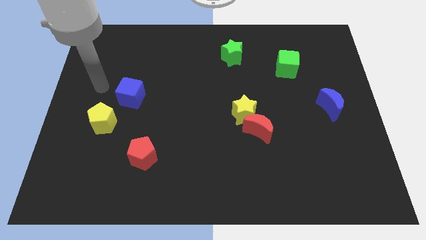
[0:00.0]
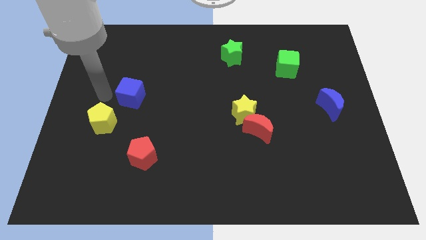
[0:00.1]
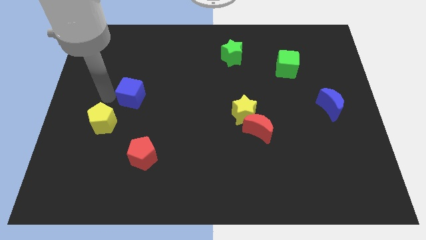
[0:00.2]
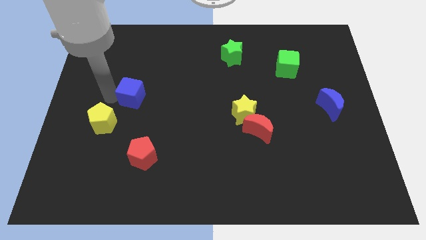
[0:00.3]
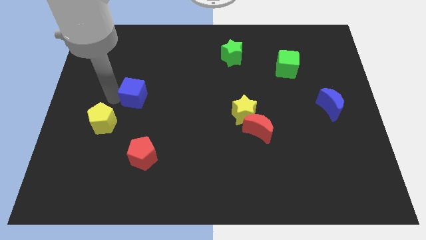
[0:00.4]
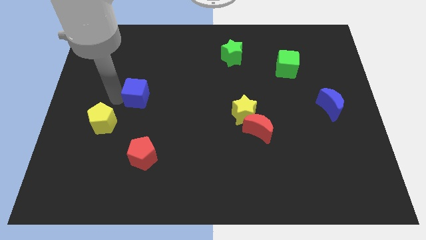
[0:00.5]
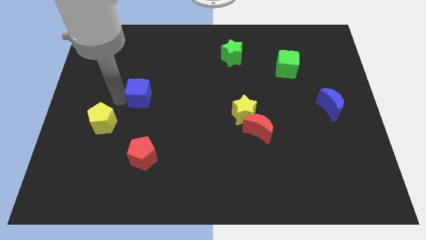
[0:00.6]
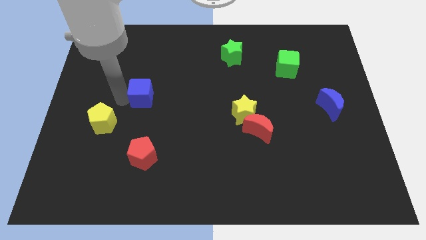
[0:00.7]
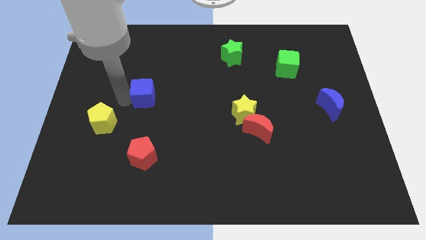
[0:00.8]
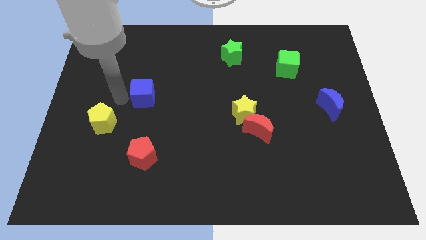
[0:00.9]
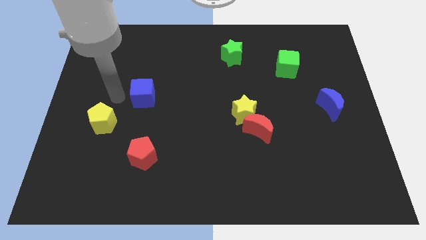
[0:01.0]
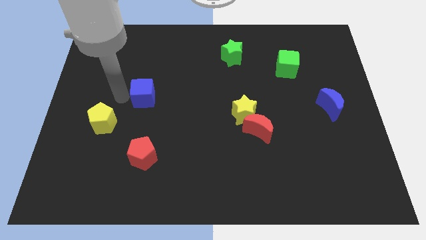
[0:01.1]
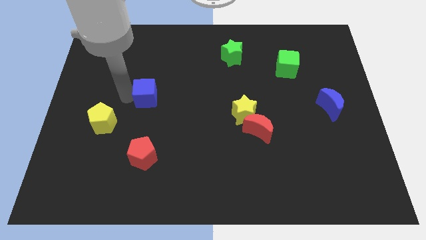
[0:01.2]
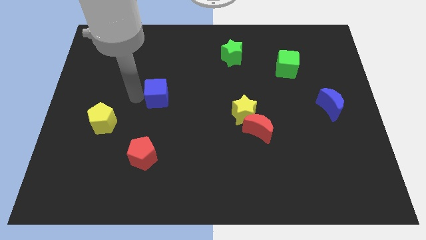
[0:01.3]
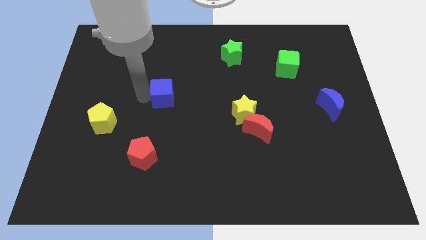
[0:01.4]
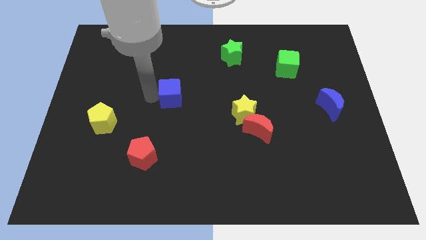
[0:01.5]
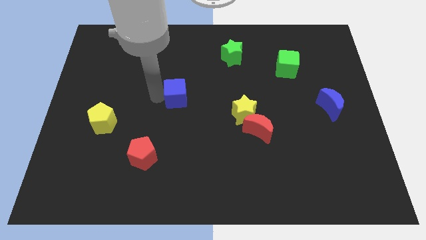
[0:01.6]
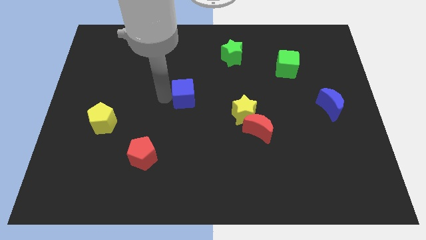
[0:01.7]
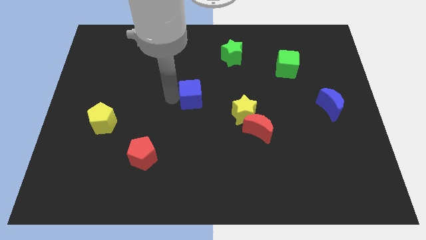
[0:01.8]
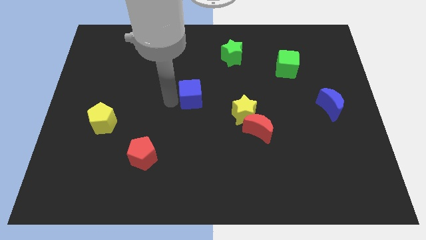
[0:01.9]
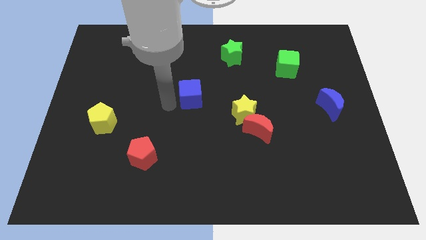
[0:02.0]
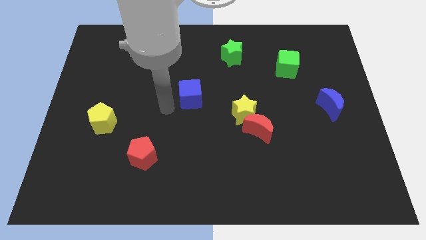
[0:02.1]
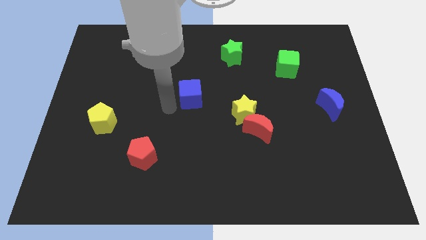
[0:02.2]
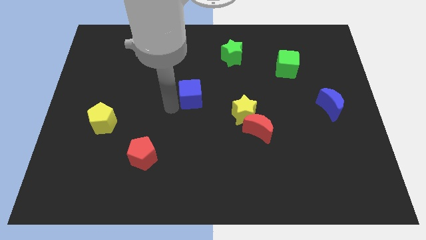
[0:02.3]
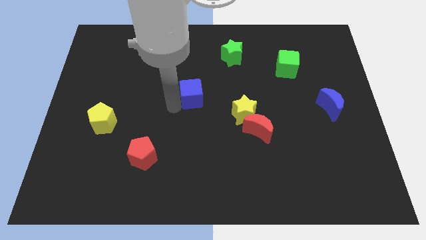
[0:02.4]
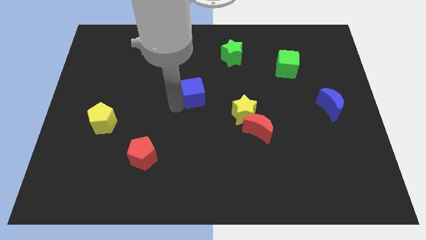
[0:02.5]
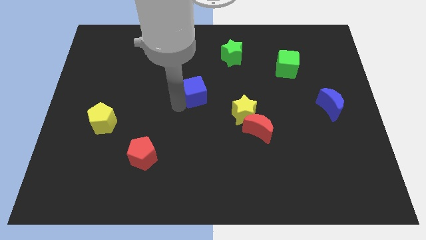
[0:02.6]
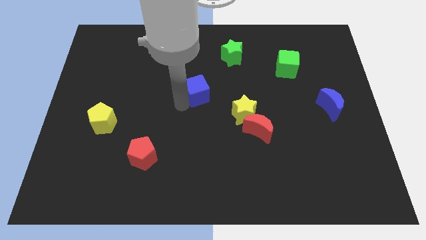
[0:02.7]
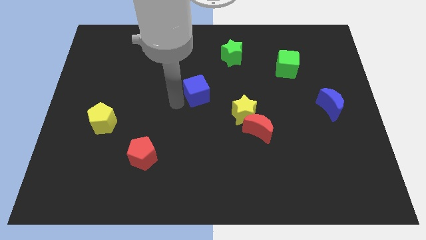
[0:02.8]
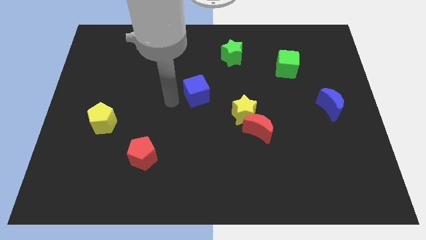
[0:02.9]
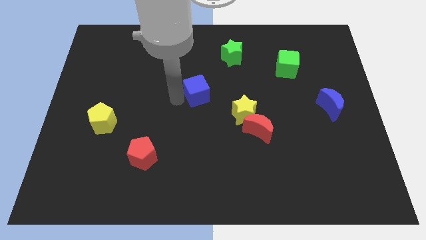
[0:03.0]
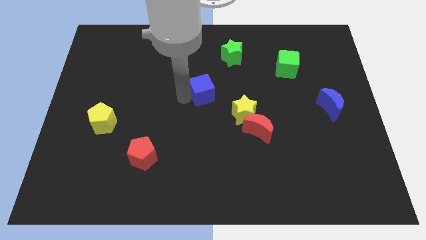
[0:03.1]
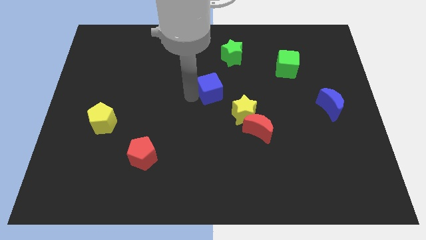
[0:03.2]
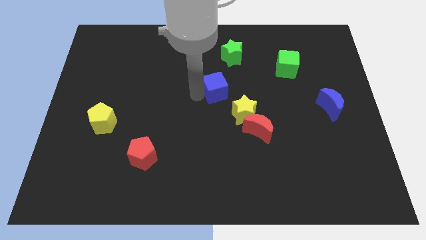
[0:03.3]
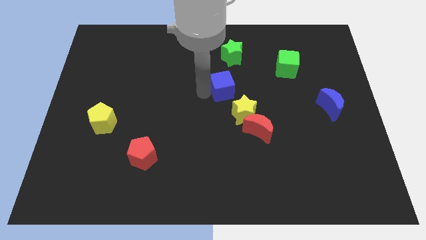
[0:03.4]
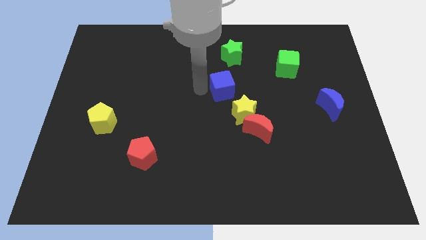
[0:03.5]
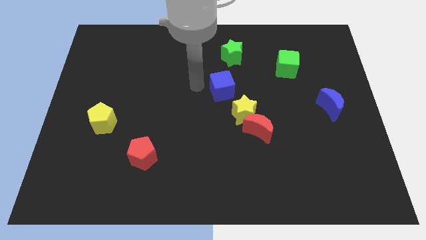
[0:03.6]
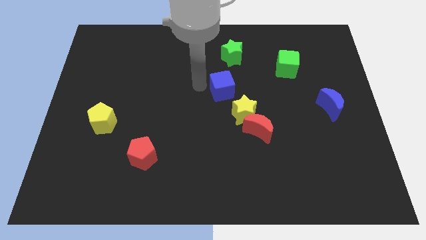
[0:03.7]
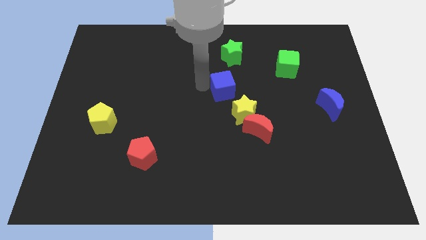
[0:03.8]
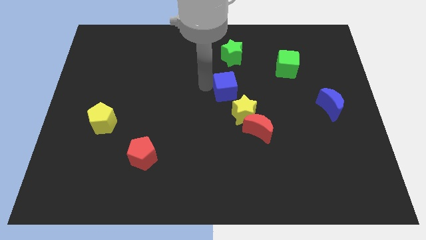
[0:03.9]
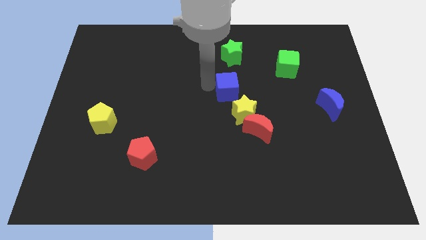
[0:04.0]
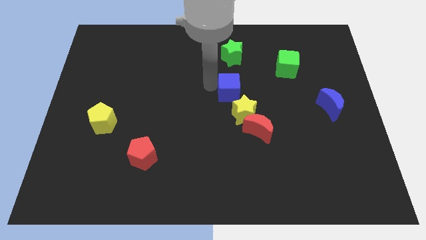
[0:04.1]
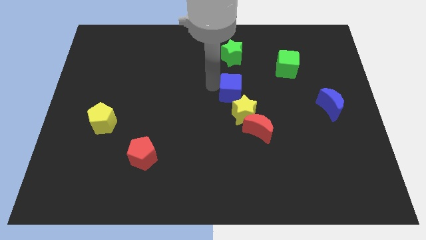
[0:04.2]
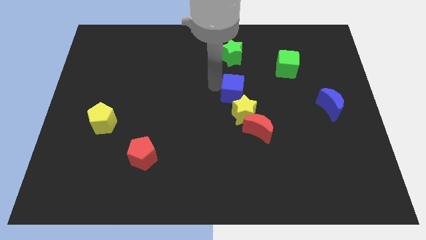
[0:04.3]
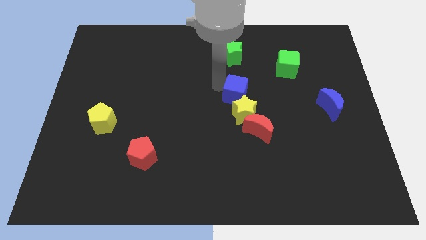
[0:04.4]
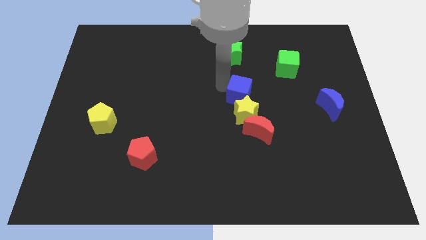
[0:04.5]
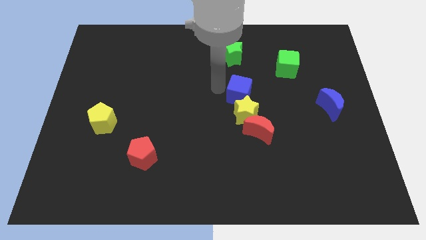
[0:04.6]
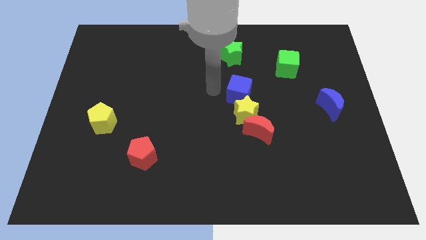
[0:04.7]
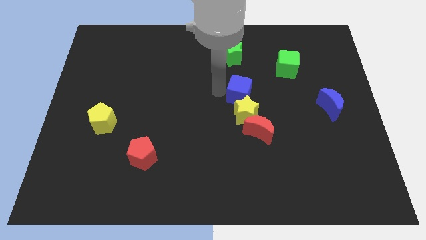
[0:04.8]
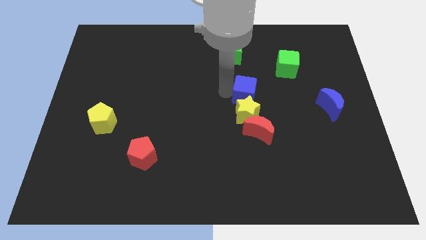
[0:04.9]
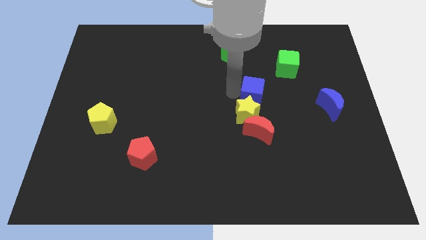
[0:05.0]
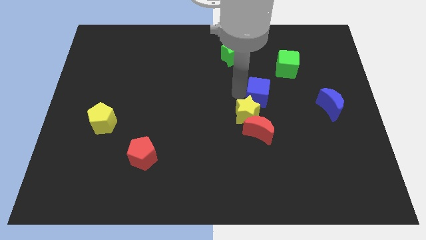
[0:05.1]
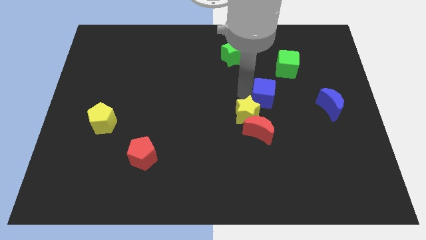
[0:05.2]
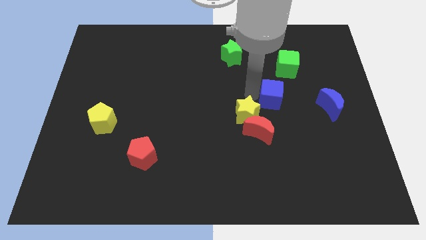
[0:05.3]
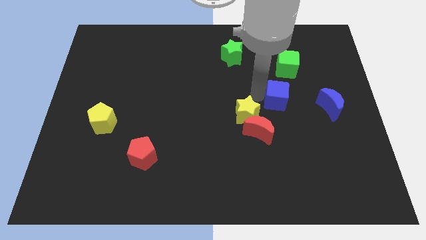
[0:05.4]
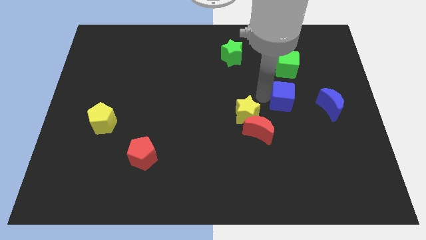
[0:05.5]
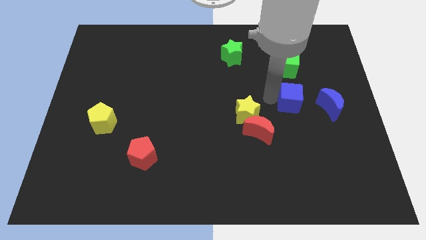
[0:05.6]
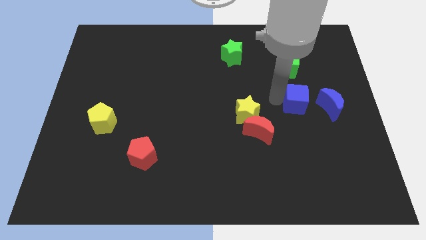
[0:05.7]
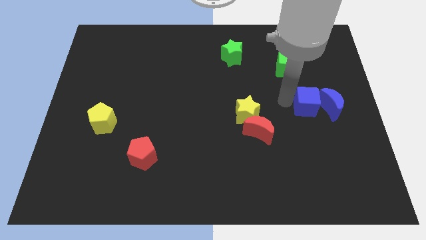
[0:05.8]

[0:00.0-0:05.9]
move the blue cube to the blue moon

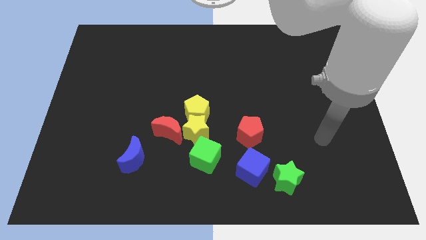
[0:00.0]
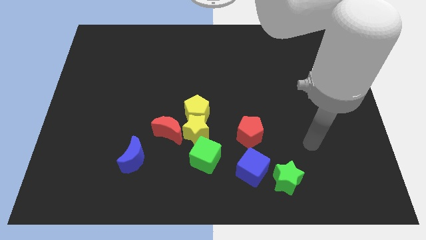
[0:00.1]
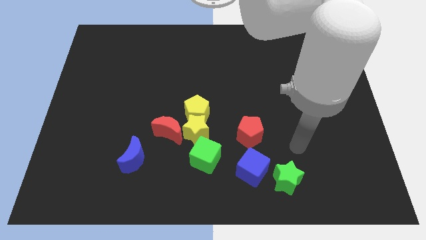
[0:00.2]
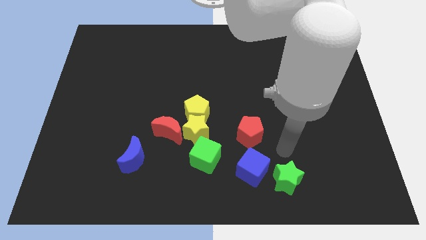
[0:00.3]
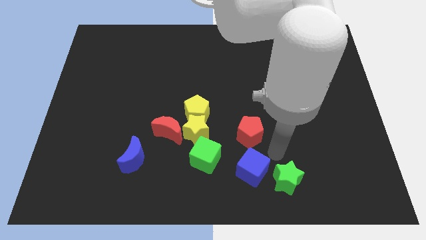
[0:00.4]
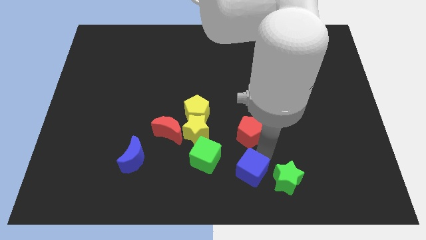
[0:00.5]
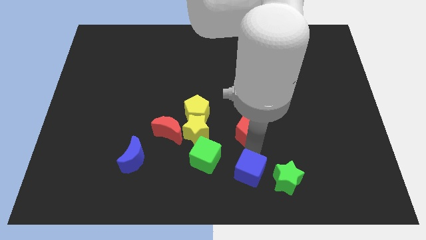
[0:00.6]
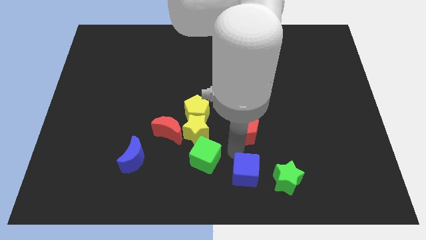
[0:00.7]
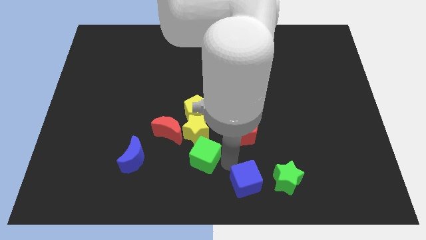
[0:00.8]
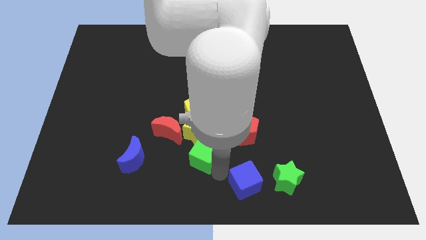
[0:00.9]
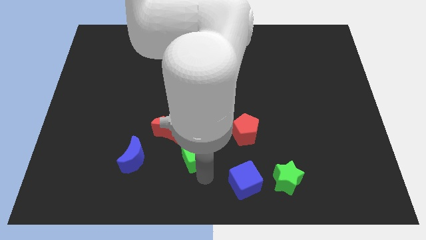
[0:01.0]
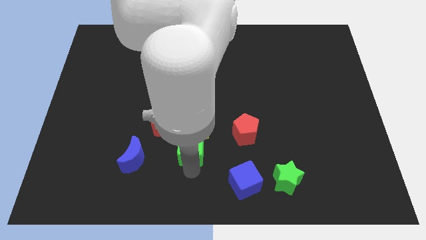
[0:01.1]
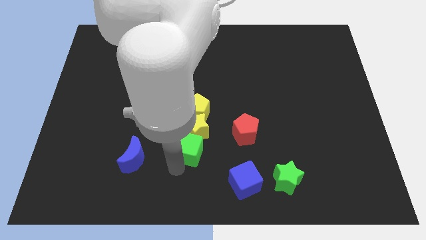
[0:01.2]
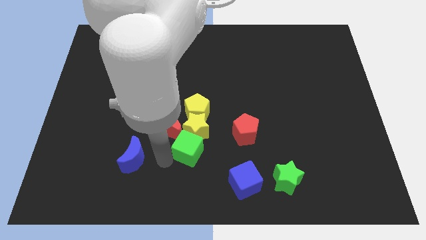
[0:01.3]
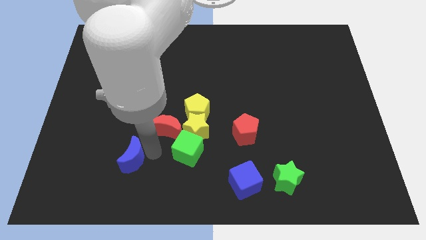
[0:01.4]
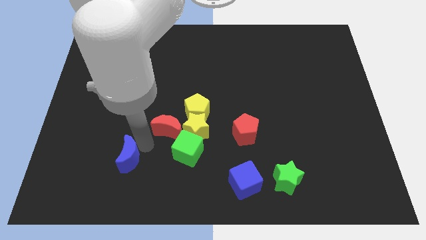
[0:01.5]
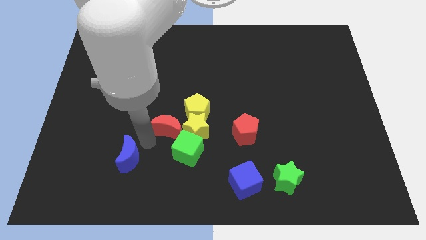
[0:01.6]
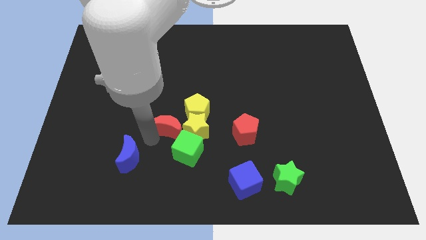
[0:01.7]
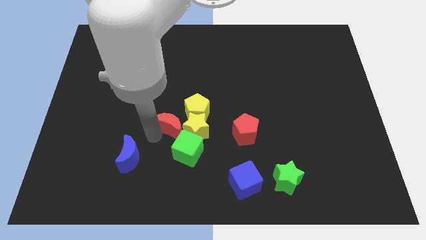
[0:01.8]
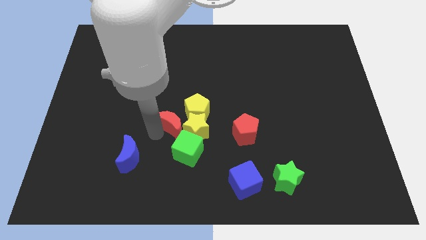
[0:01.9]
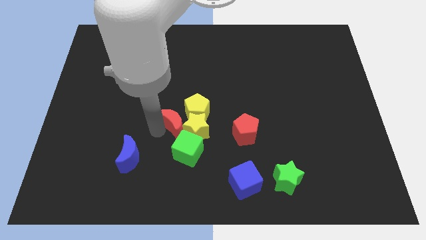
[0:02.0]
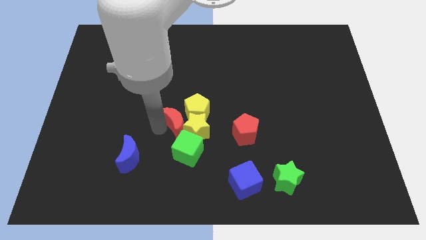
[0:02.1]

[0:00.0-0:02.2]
push the red moon close to the yellow pentagon
